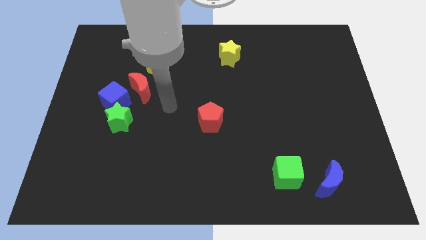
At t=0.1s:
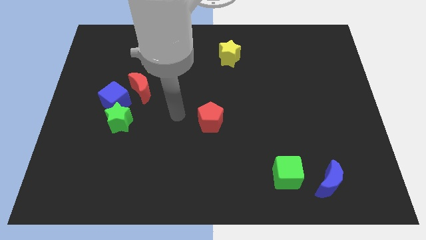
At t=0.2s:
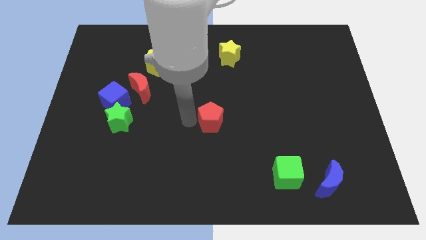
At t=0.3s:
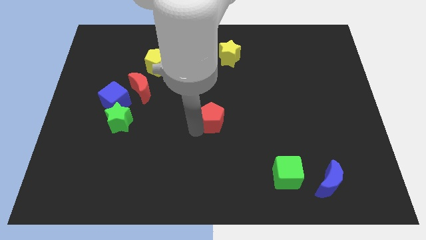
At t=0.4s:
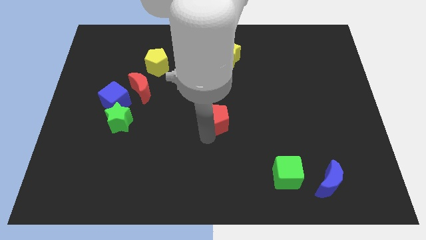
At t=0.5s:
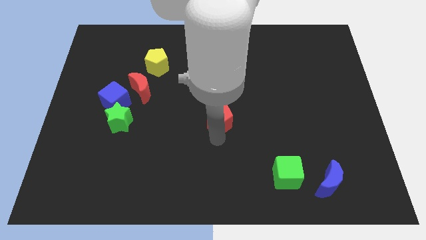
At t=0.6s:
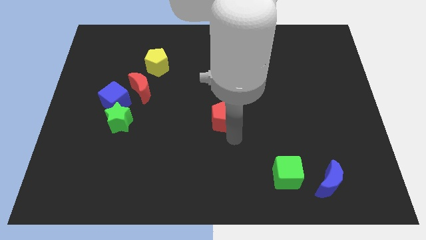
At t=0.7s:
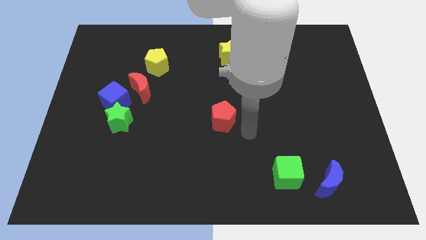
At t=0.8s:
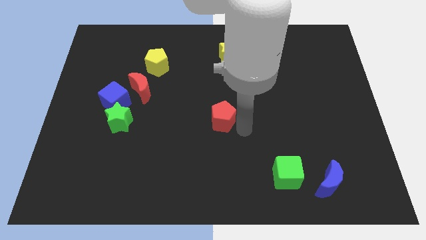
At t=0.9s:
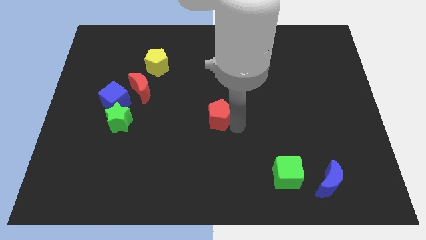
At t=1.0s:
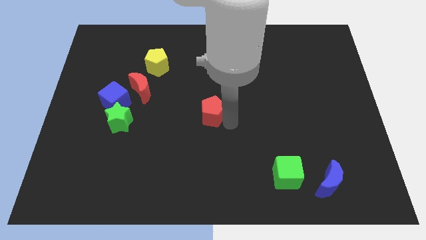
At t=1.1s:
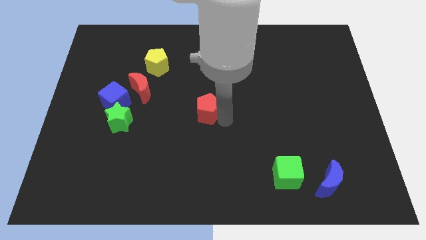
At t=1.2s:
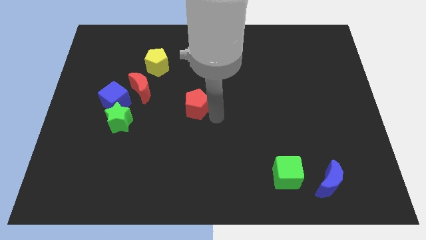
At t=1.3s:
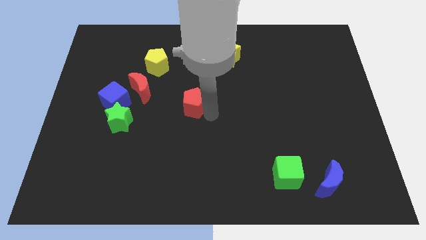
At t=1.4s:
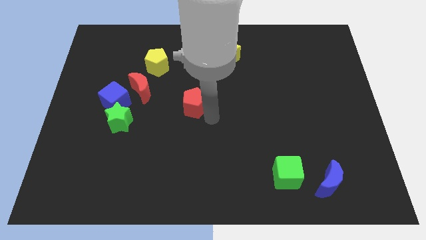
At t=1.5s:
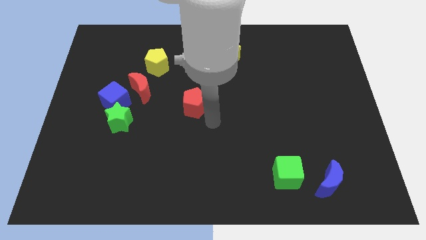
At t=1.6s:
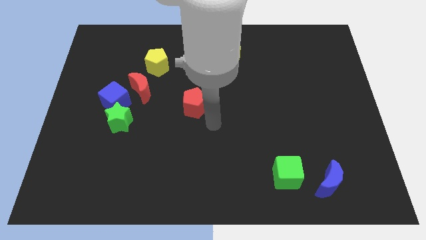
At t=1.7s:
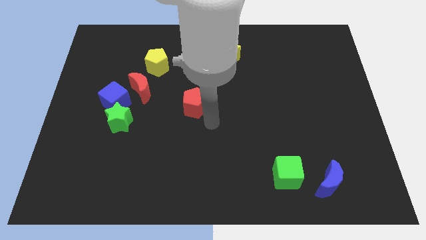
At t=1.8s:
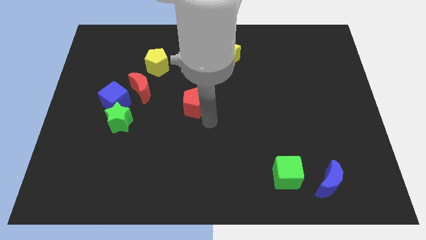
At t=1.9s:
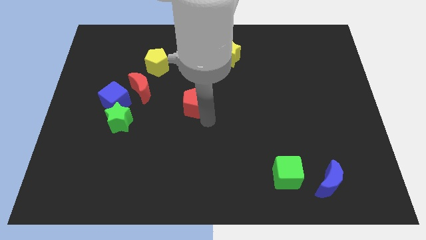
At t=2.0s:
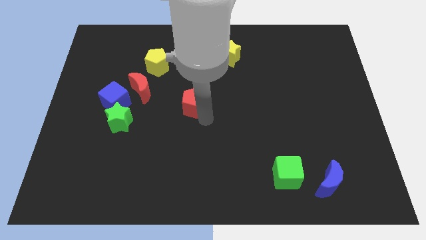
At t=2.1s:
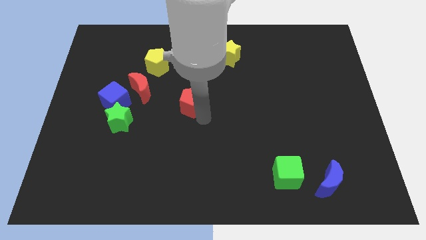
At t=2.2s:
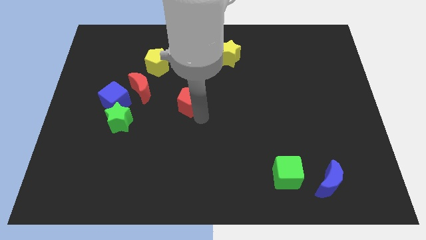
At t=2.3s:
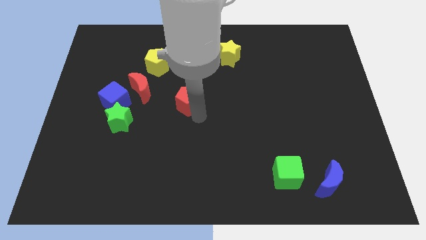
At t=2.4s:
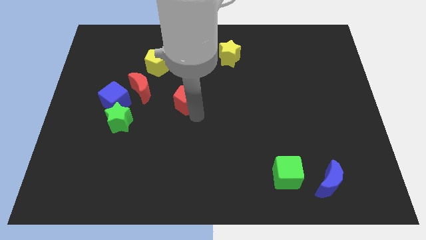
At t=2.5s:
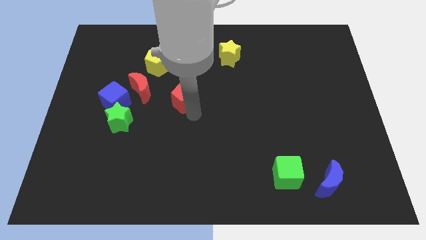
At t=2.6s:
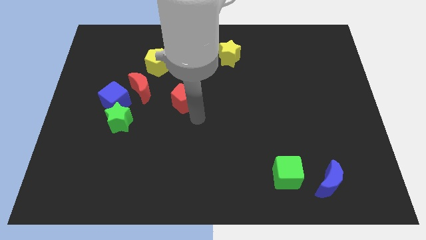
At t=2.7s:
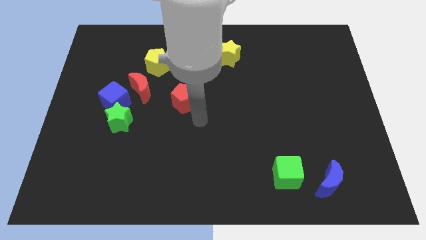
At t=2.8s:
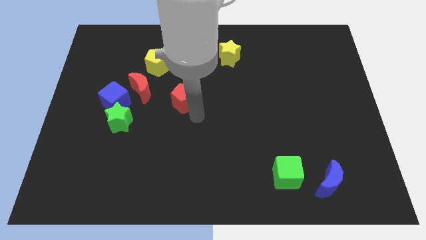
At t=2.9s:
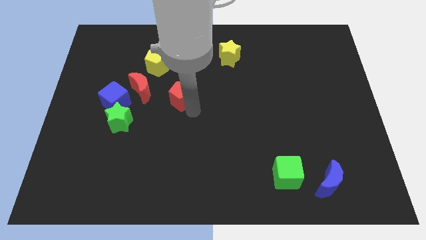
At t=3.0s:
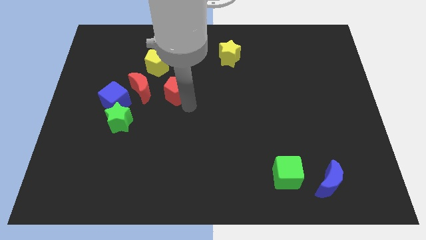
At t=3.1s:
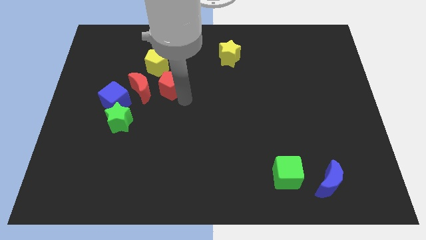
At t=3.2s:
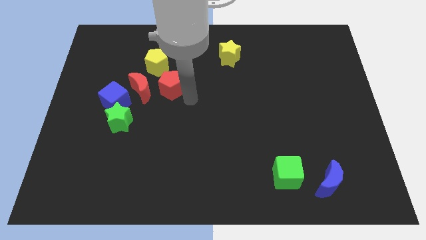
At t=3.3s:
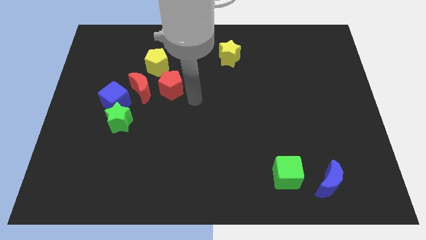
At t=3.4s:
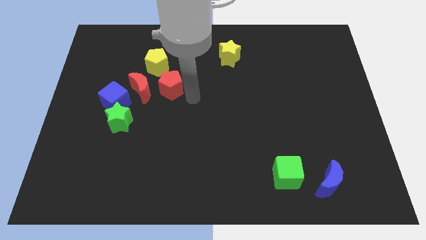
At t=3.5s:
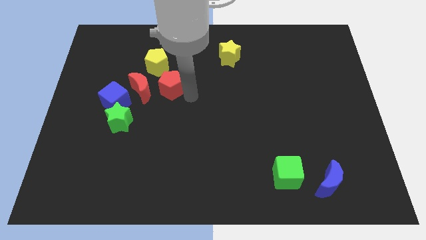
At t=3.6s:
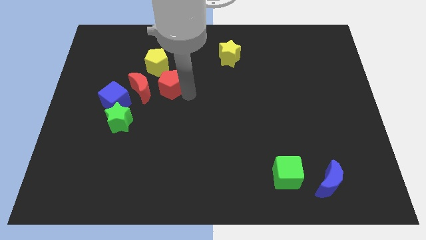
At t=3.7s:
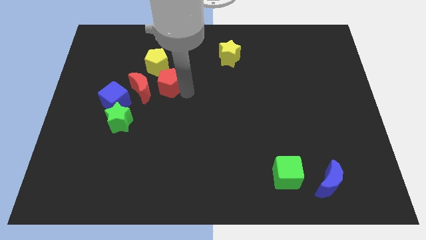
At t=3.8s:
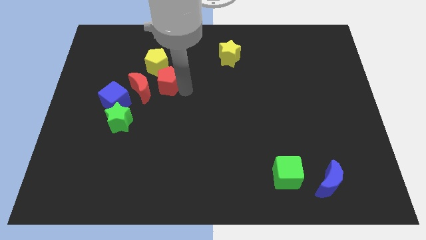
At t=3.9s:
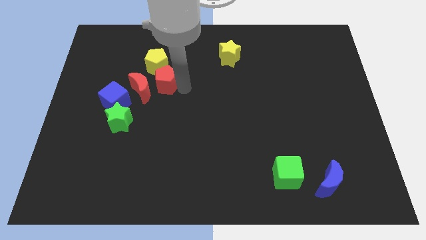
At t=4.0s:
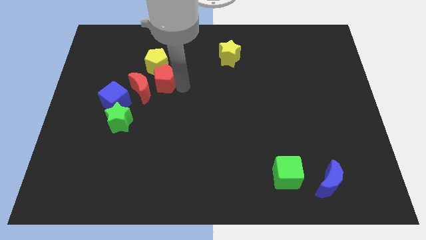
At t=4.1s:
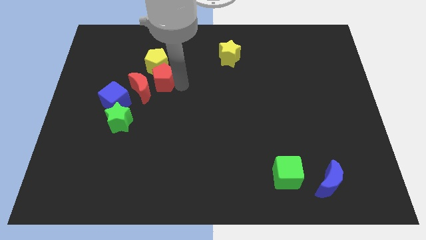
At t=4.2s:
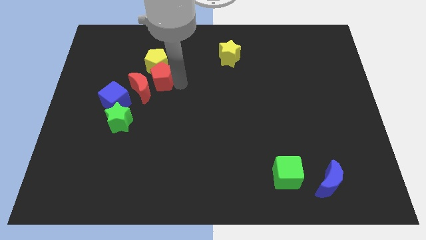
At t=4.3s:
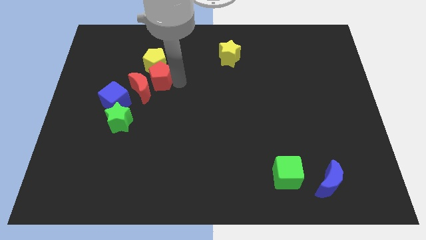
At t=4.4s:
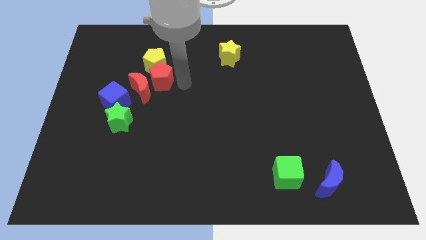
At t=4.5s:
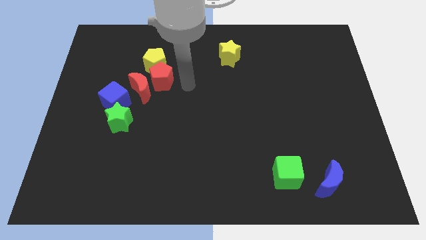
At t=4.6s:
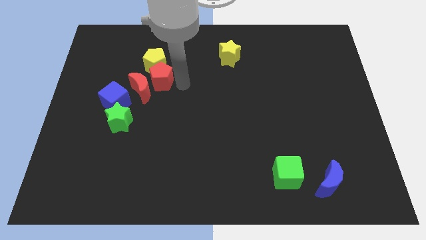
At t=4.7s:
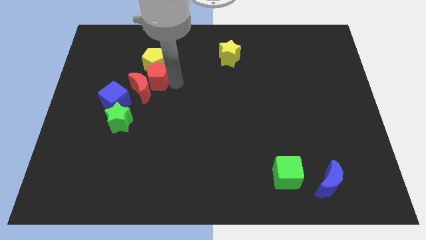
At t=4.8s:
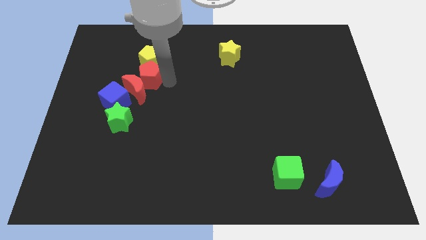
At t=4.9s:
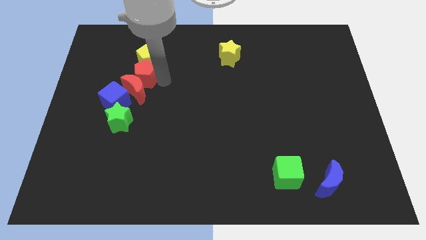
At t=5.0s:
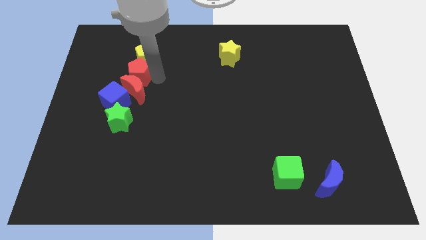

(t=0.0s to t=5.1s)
slide the red pentagon above the green star

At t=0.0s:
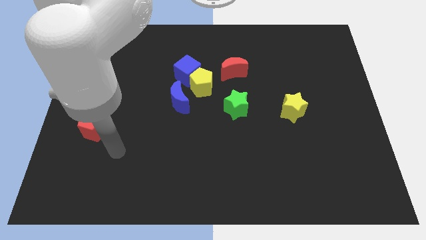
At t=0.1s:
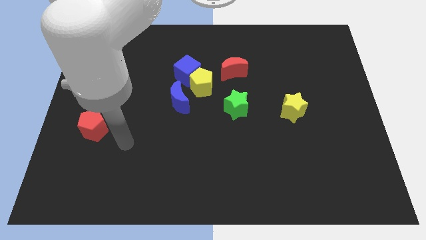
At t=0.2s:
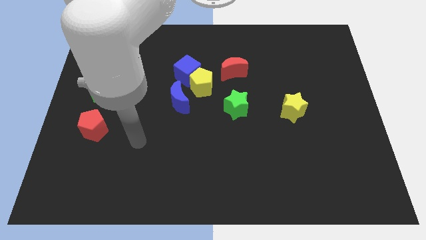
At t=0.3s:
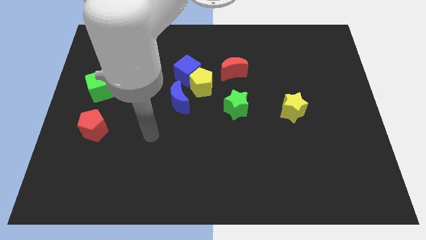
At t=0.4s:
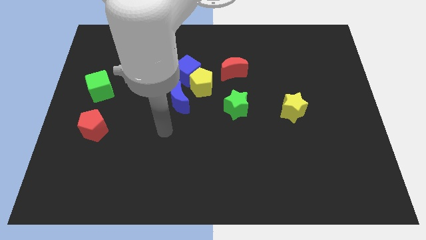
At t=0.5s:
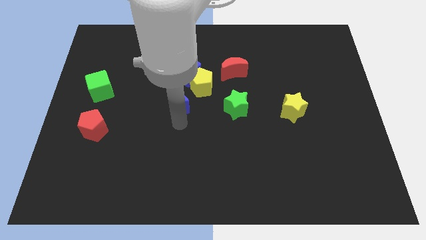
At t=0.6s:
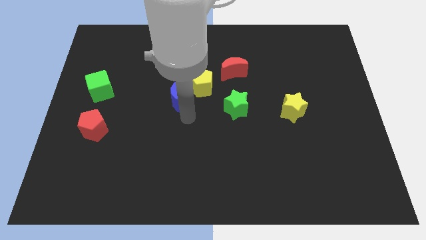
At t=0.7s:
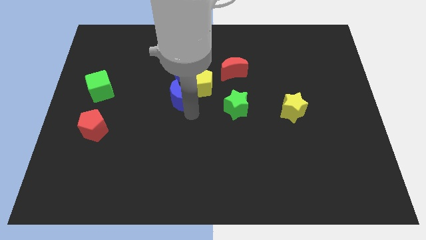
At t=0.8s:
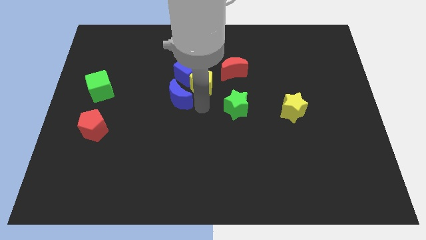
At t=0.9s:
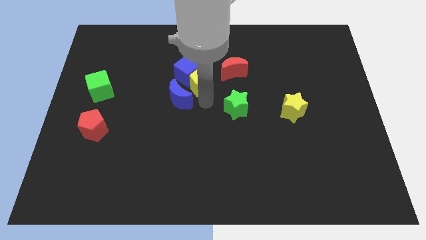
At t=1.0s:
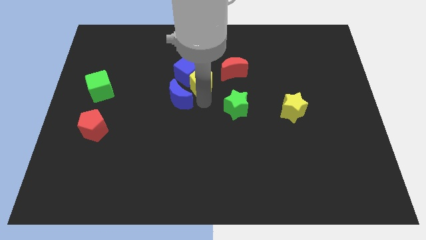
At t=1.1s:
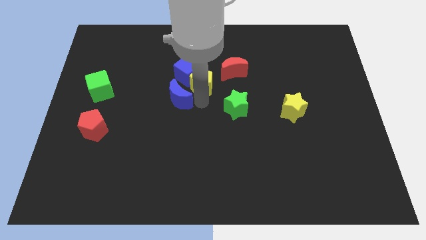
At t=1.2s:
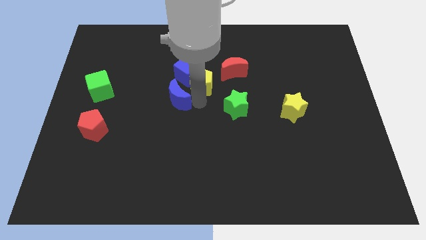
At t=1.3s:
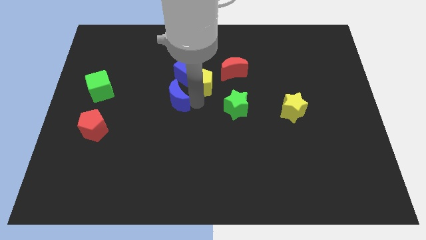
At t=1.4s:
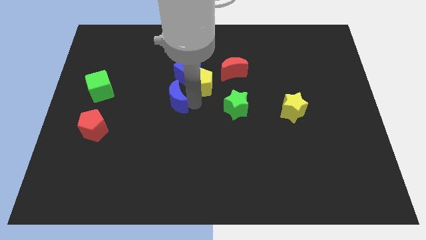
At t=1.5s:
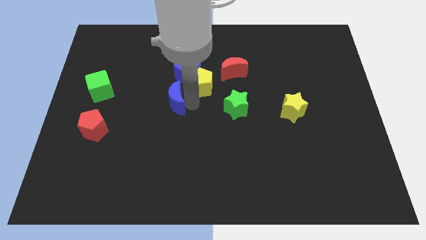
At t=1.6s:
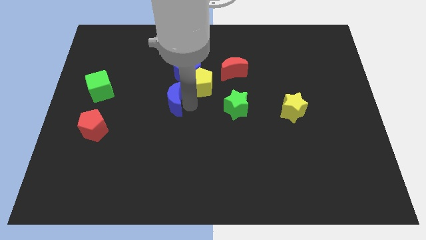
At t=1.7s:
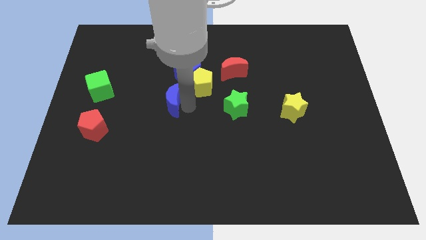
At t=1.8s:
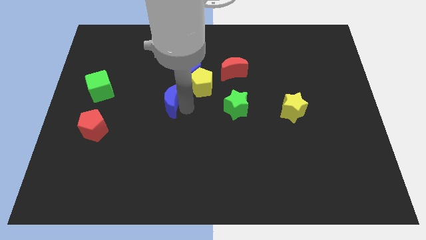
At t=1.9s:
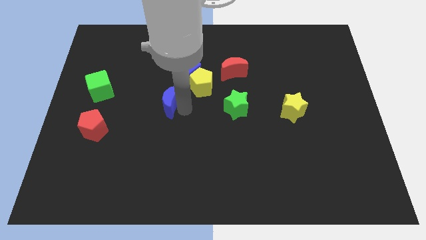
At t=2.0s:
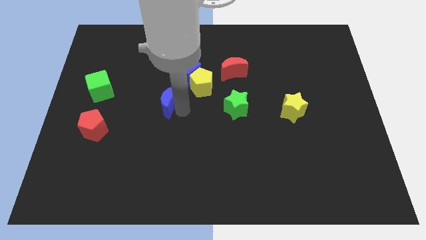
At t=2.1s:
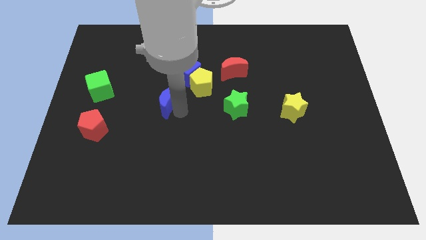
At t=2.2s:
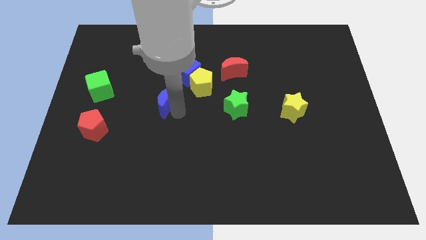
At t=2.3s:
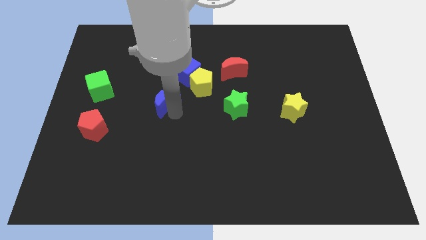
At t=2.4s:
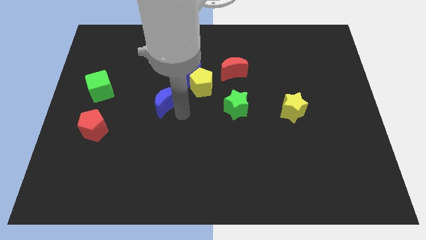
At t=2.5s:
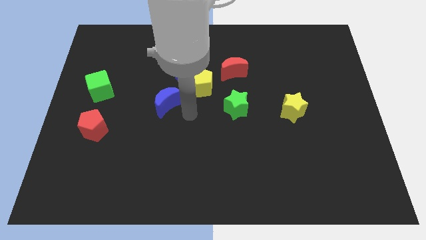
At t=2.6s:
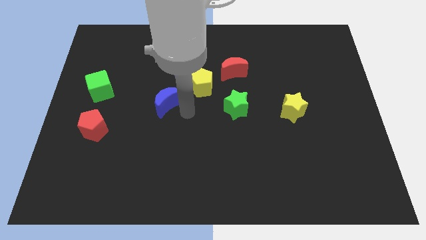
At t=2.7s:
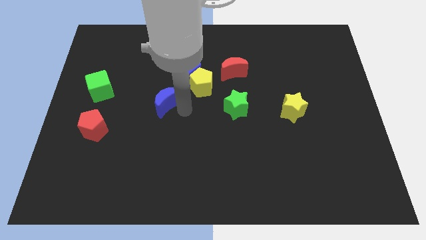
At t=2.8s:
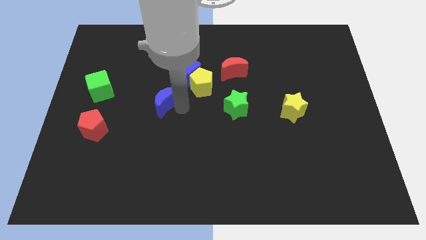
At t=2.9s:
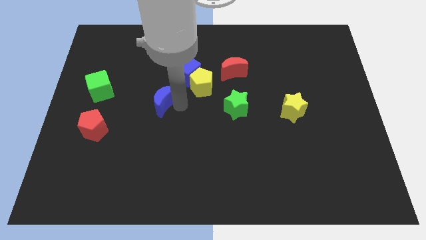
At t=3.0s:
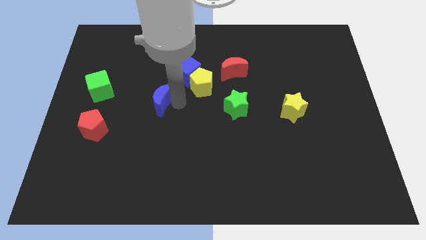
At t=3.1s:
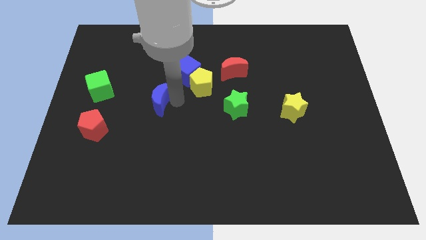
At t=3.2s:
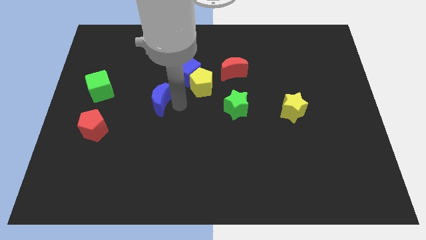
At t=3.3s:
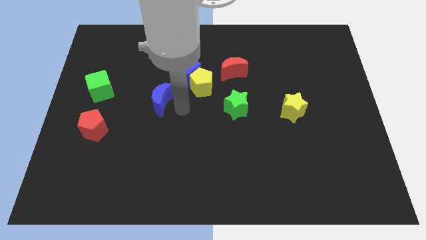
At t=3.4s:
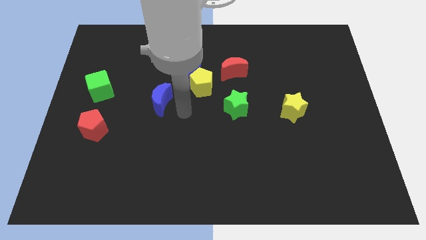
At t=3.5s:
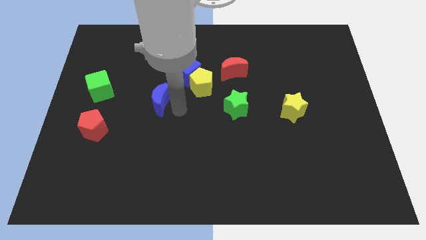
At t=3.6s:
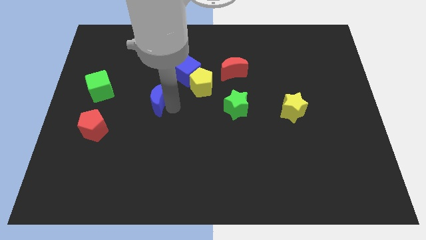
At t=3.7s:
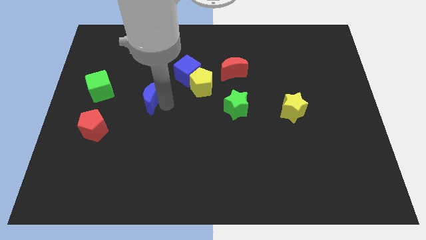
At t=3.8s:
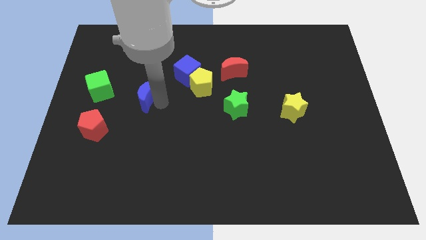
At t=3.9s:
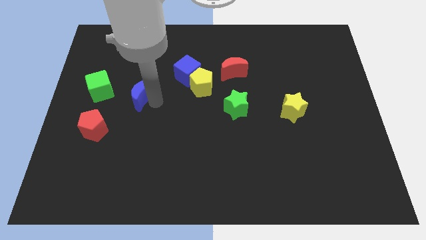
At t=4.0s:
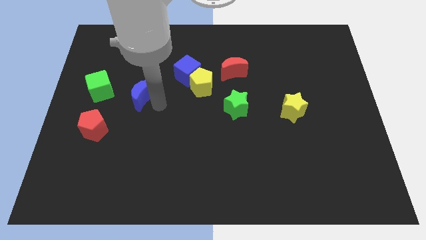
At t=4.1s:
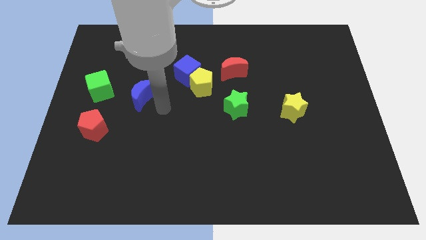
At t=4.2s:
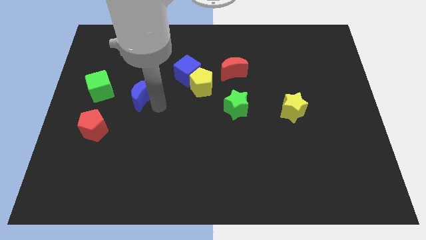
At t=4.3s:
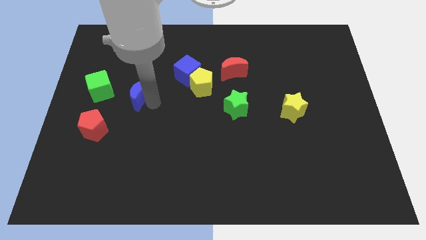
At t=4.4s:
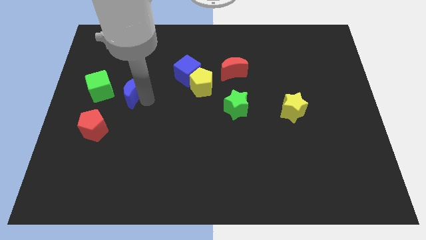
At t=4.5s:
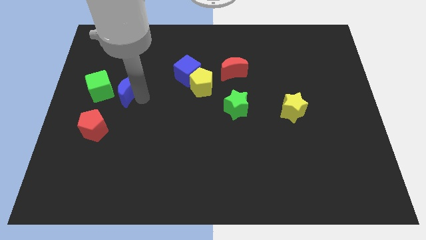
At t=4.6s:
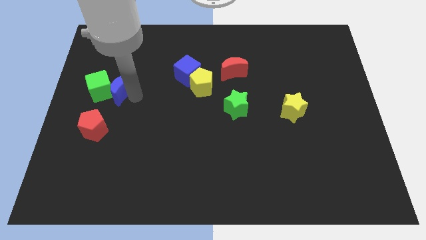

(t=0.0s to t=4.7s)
push the blue moon to the top side of the red pentagon
